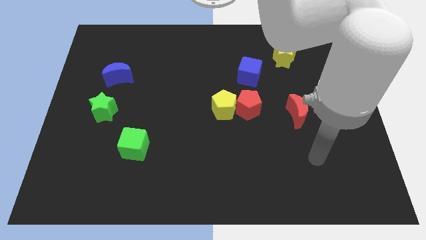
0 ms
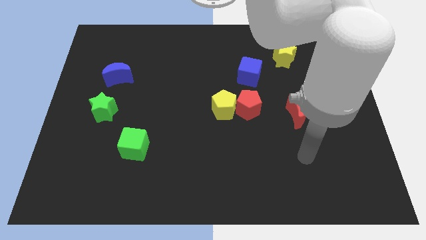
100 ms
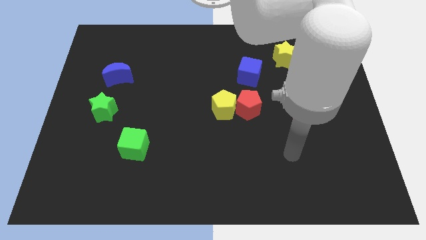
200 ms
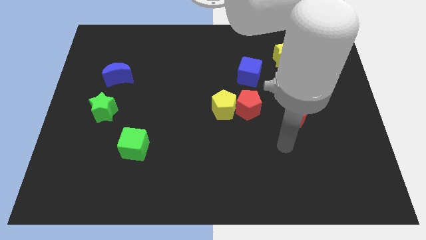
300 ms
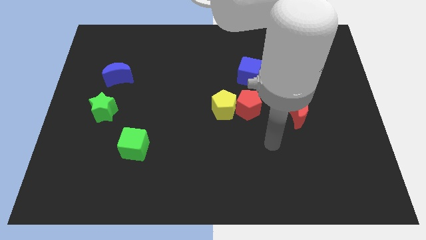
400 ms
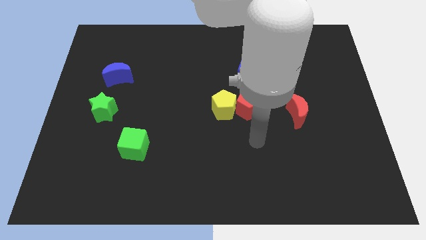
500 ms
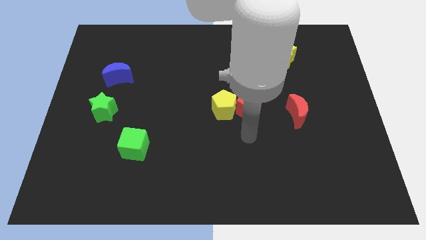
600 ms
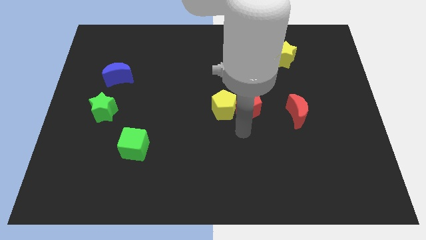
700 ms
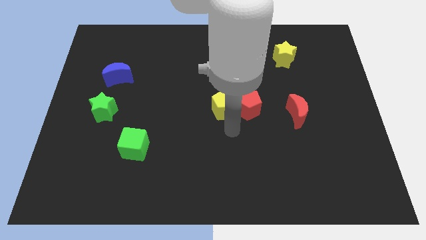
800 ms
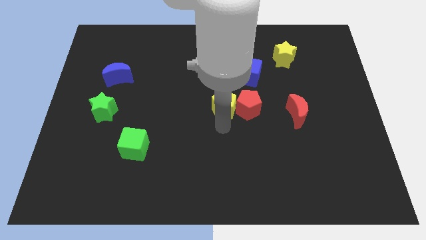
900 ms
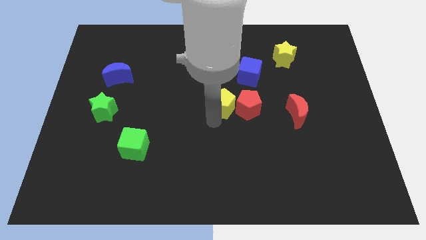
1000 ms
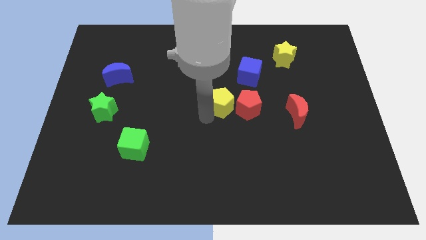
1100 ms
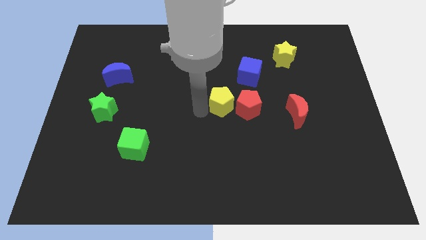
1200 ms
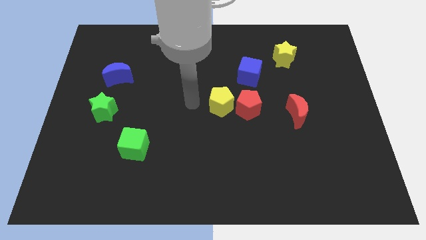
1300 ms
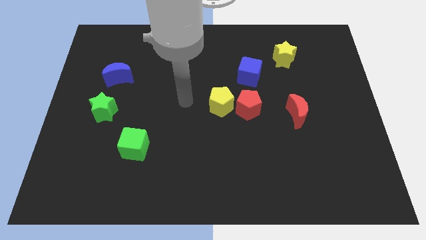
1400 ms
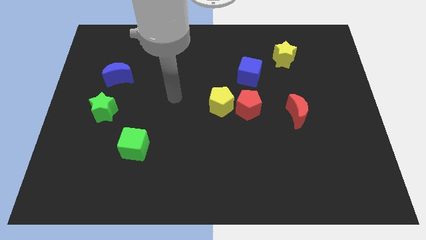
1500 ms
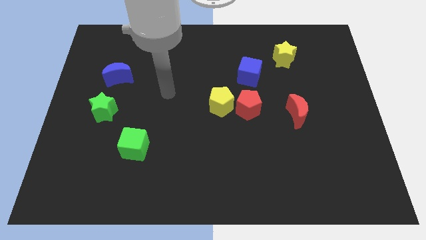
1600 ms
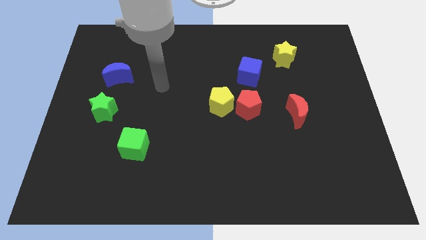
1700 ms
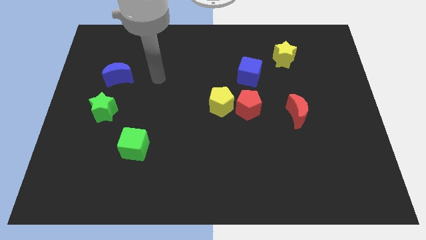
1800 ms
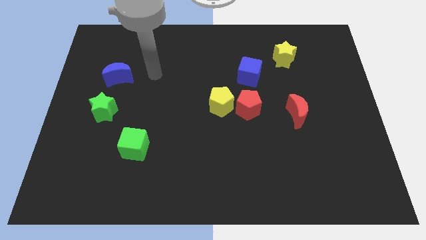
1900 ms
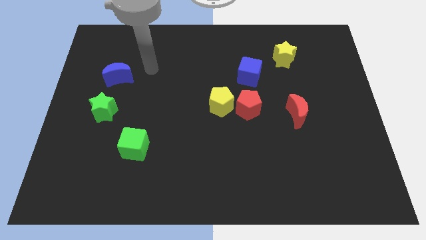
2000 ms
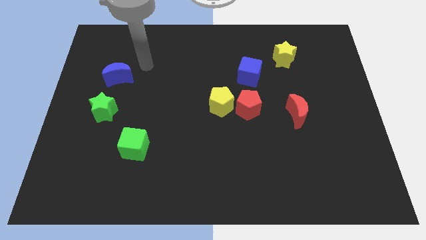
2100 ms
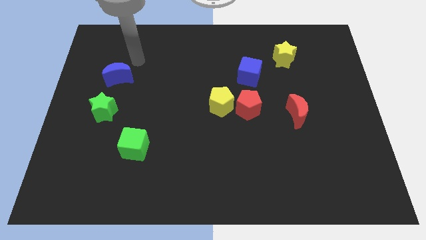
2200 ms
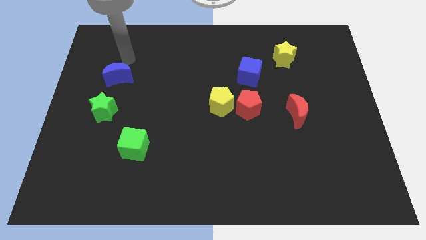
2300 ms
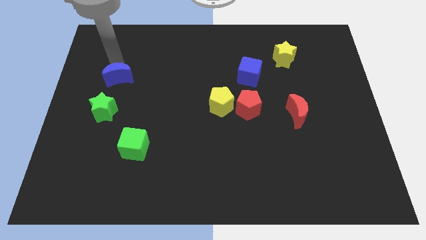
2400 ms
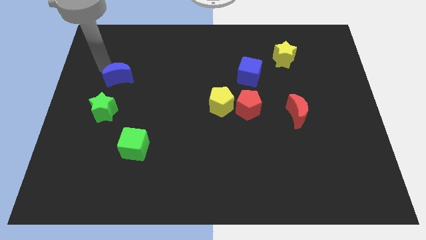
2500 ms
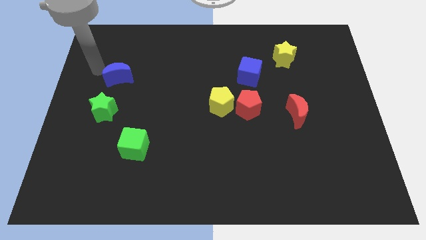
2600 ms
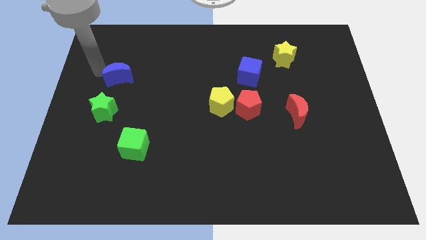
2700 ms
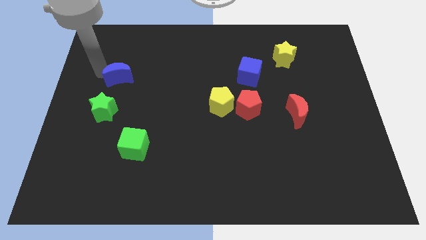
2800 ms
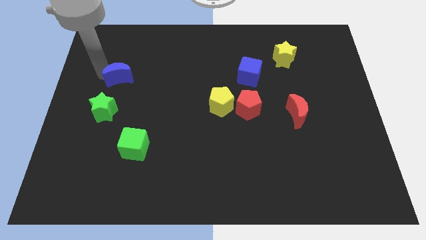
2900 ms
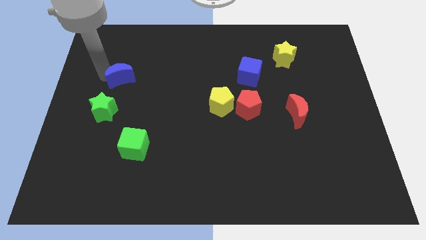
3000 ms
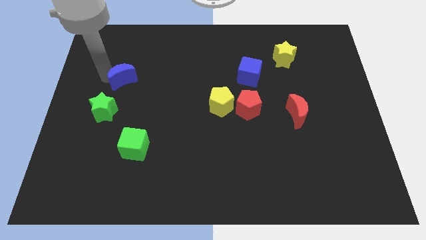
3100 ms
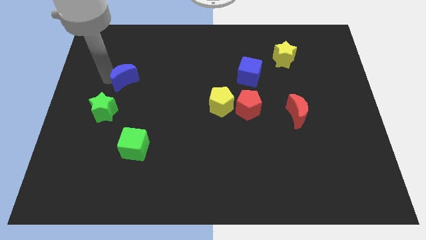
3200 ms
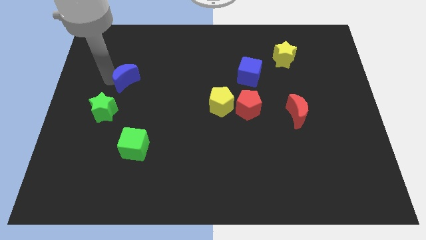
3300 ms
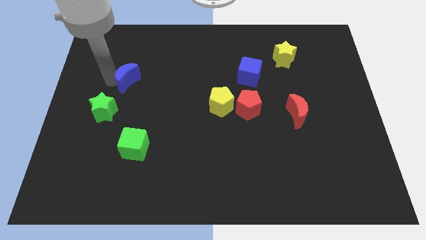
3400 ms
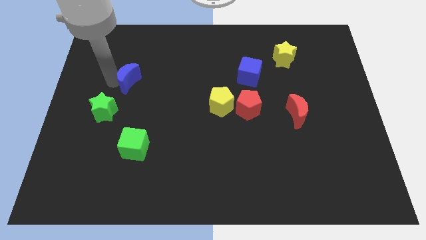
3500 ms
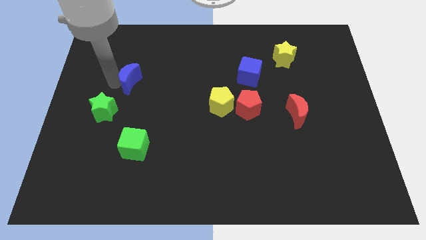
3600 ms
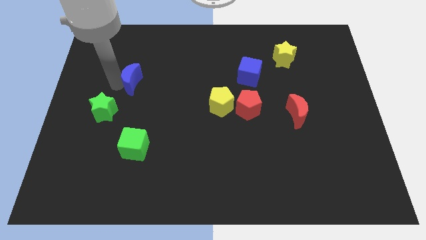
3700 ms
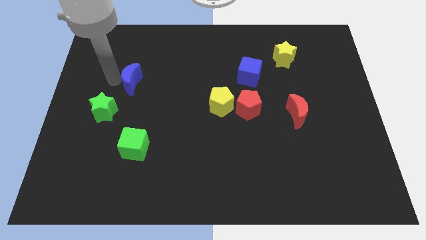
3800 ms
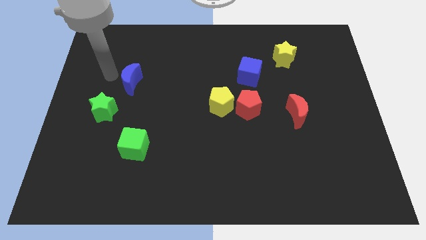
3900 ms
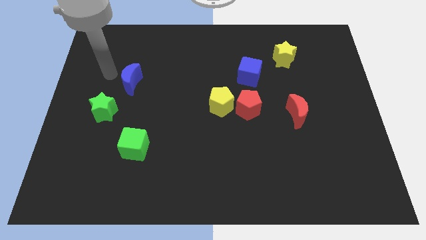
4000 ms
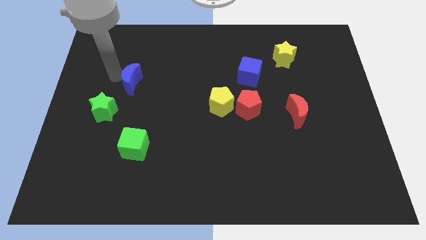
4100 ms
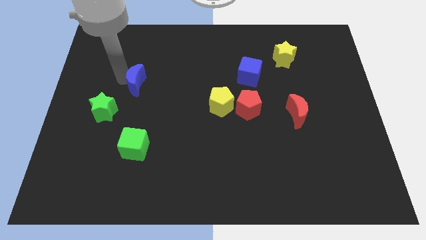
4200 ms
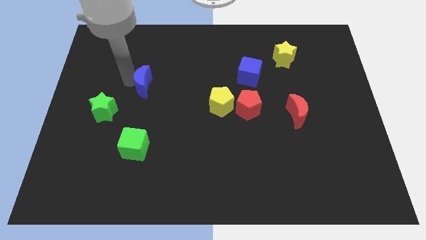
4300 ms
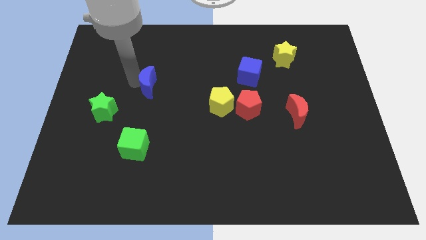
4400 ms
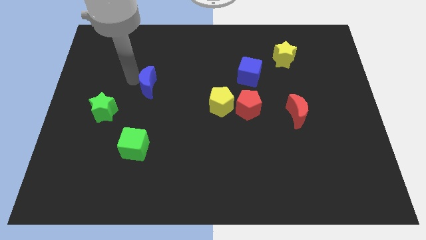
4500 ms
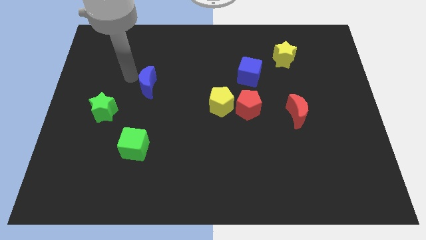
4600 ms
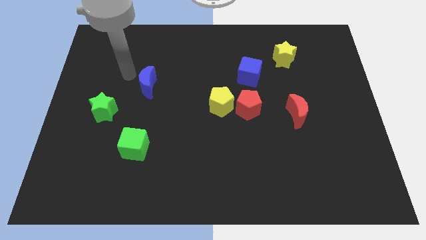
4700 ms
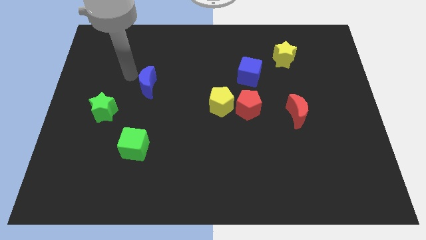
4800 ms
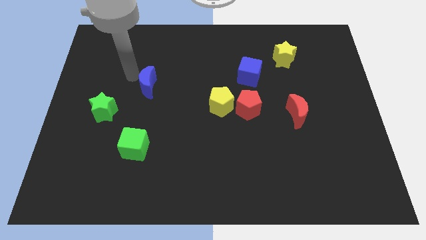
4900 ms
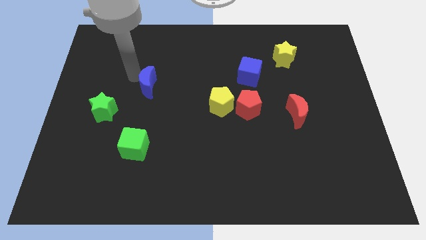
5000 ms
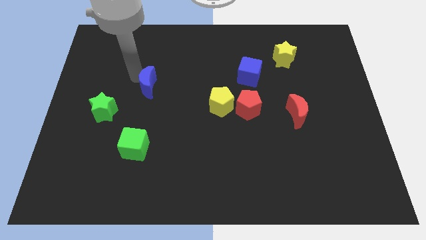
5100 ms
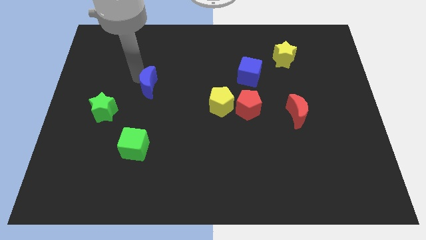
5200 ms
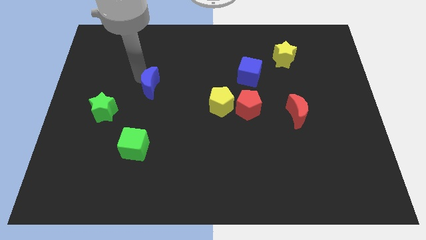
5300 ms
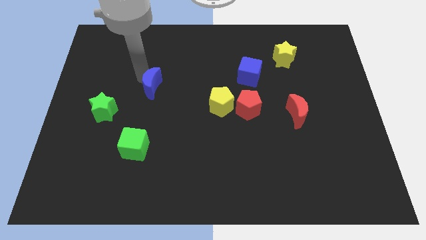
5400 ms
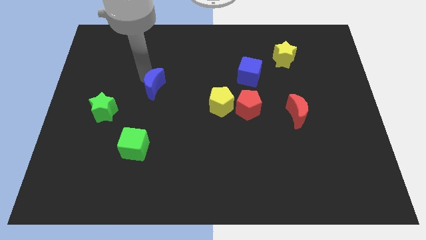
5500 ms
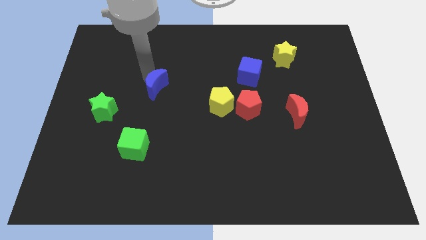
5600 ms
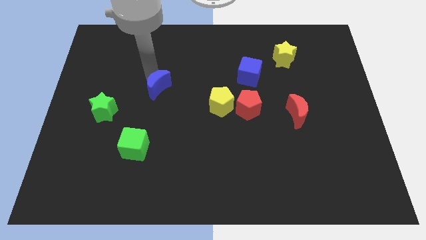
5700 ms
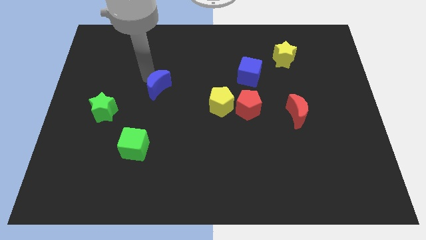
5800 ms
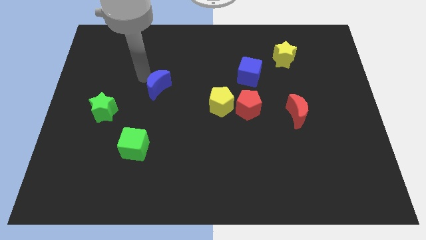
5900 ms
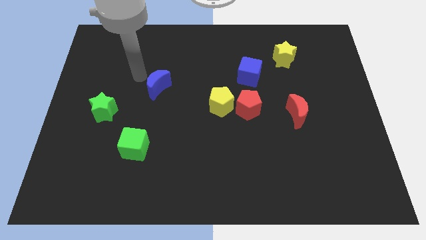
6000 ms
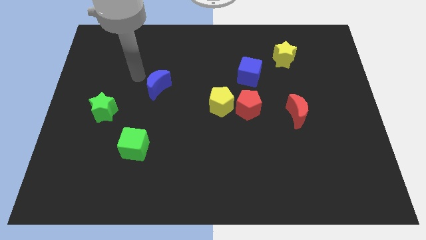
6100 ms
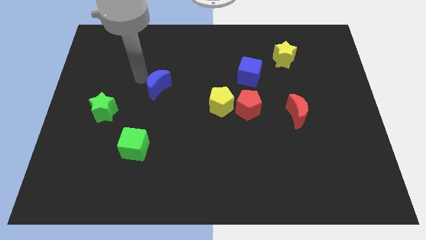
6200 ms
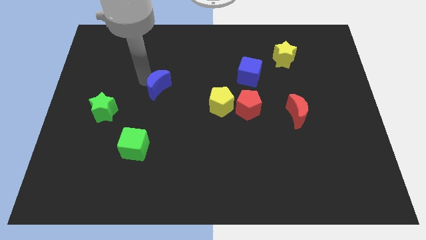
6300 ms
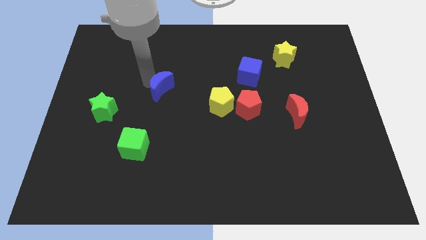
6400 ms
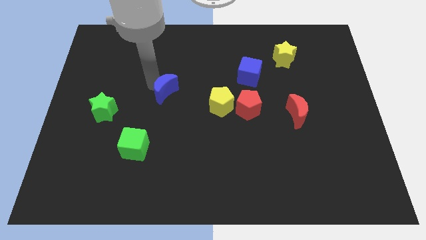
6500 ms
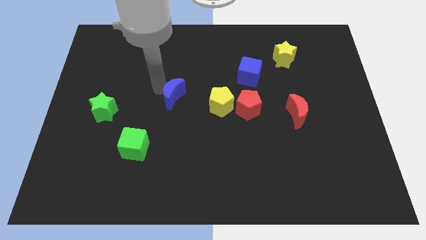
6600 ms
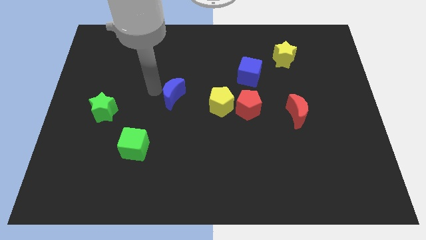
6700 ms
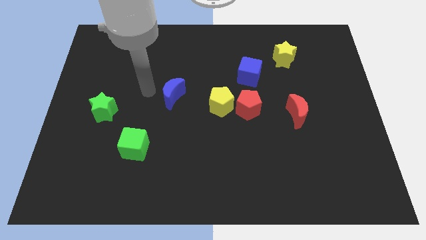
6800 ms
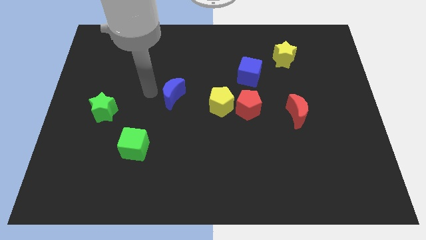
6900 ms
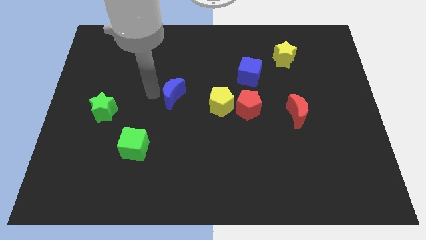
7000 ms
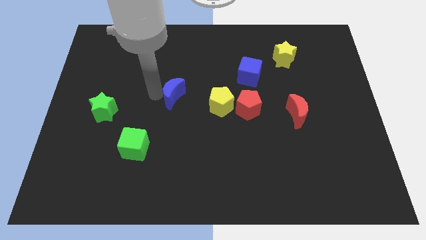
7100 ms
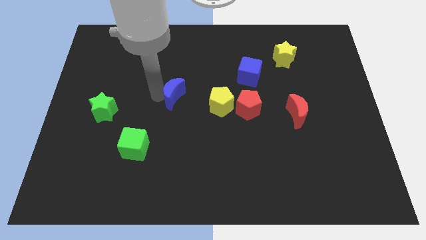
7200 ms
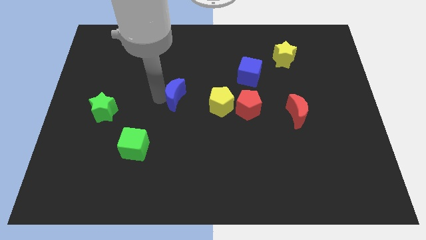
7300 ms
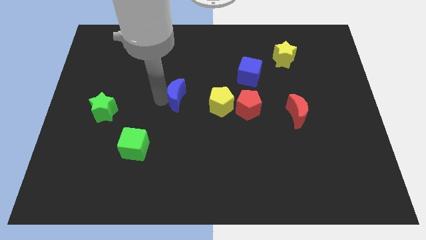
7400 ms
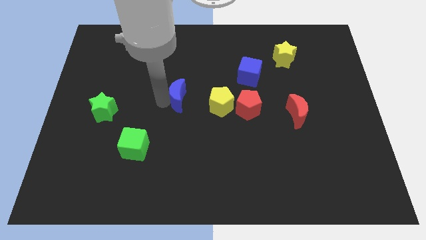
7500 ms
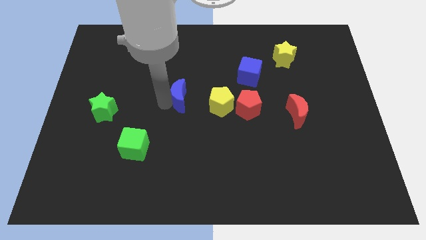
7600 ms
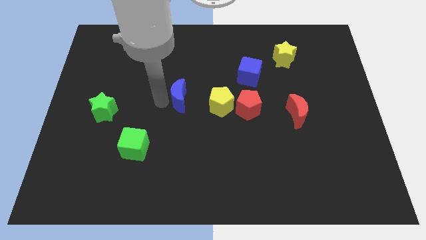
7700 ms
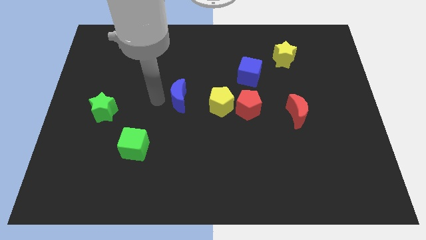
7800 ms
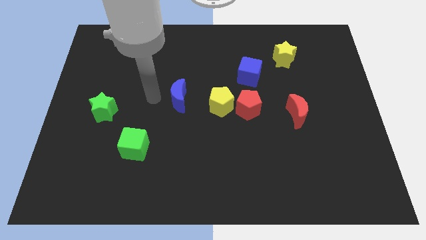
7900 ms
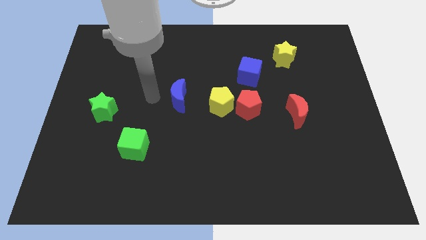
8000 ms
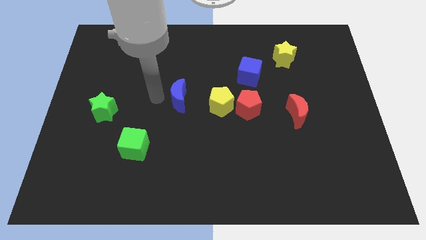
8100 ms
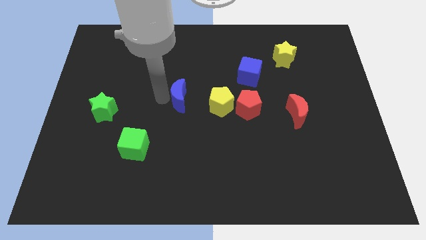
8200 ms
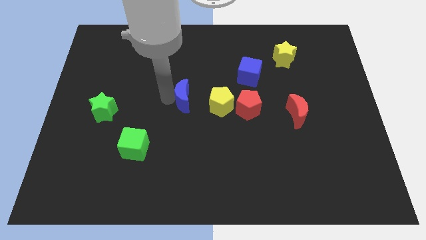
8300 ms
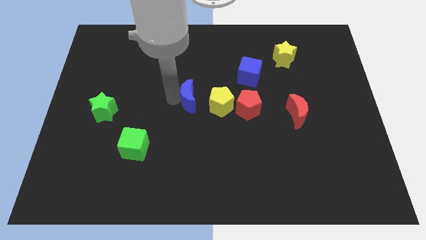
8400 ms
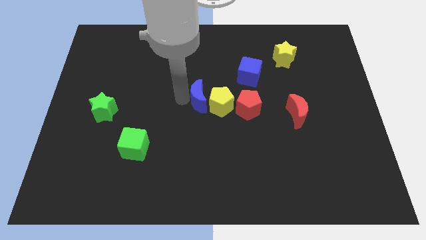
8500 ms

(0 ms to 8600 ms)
slide the blue moon towards the yellow pentagon
